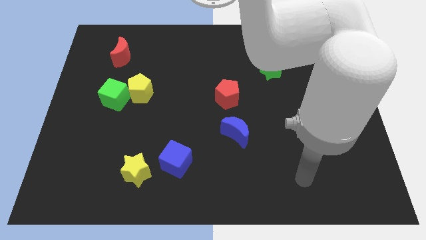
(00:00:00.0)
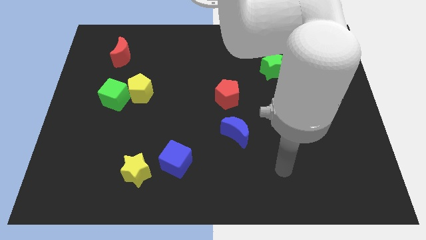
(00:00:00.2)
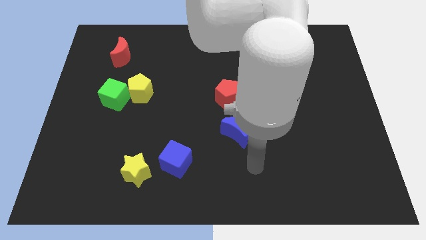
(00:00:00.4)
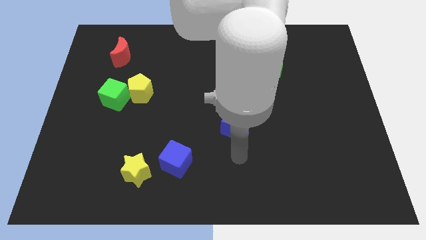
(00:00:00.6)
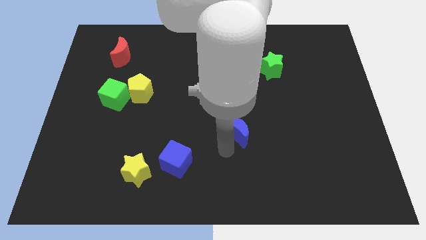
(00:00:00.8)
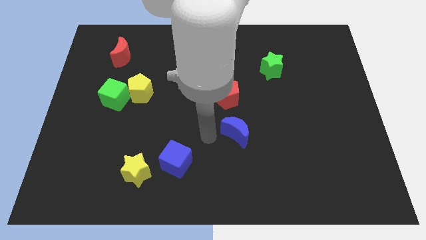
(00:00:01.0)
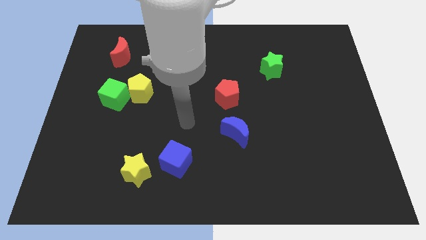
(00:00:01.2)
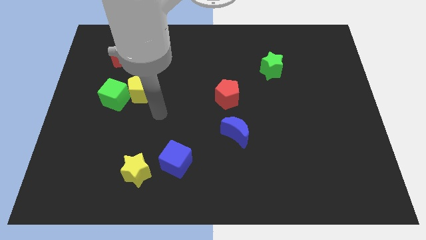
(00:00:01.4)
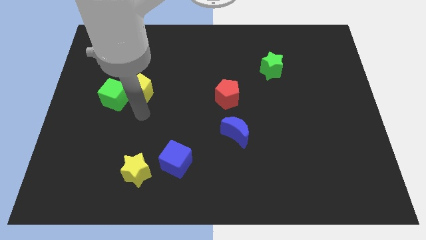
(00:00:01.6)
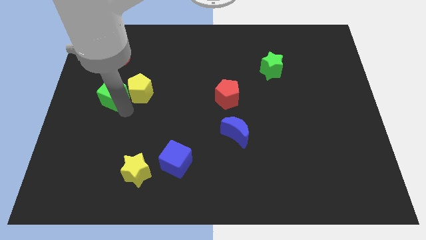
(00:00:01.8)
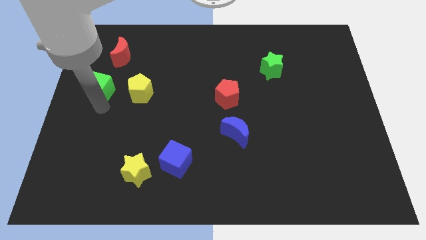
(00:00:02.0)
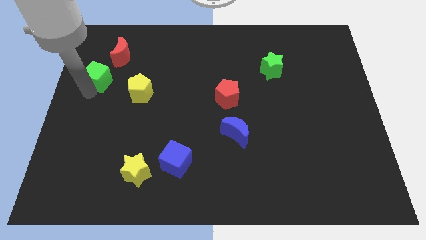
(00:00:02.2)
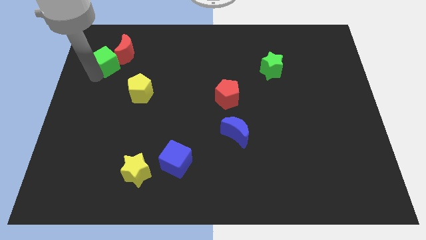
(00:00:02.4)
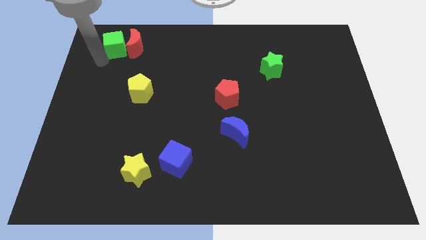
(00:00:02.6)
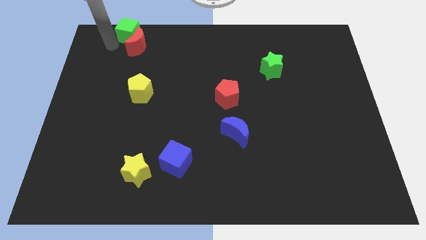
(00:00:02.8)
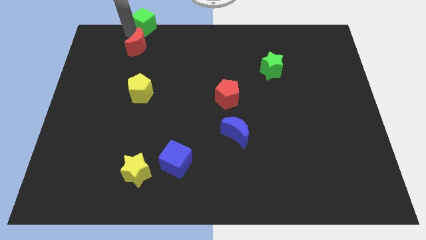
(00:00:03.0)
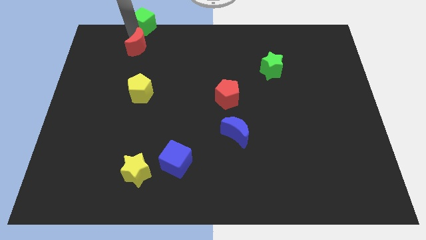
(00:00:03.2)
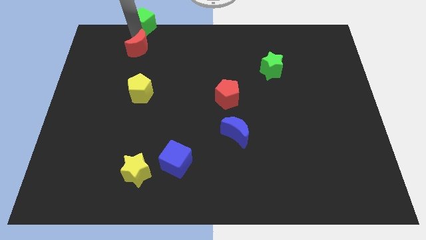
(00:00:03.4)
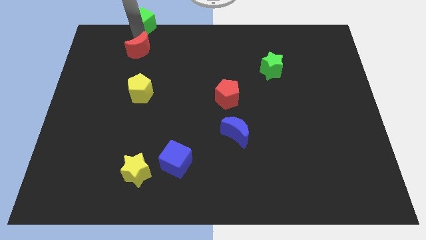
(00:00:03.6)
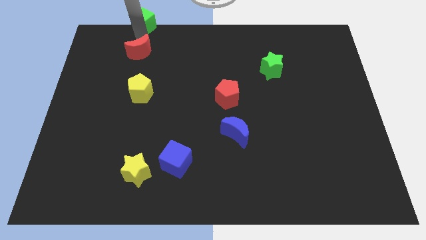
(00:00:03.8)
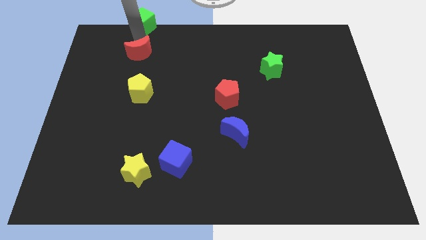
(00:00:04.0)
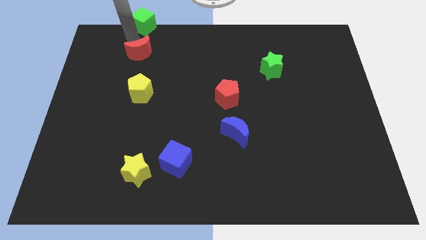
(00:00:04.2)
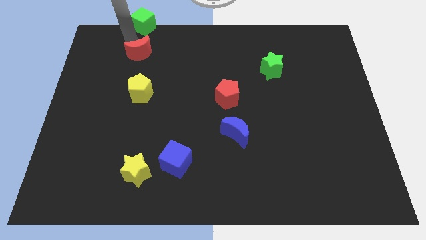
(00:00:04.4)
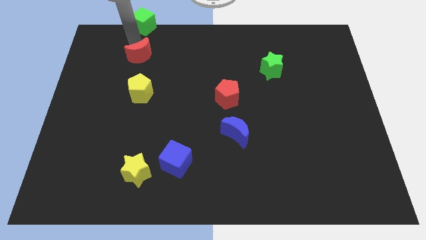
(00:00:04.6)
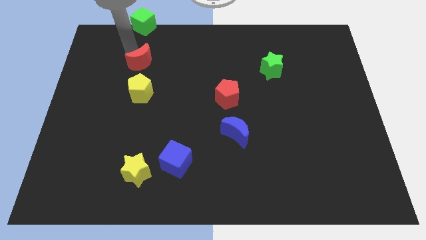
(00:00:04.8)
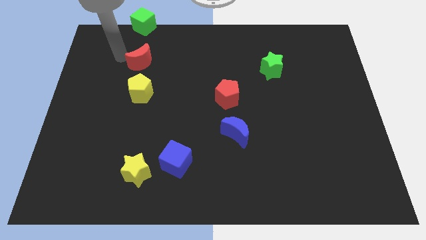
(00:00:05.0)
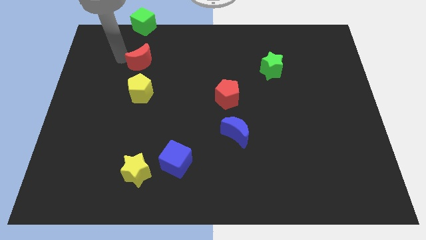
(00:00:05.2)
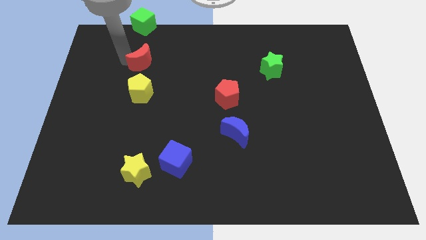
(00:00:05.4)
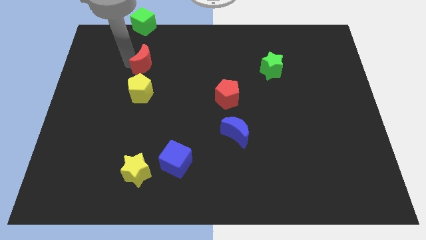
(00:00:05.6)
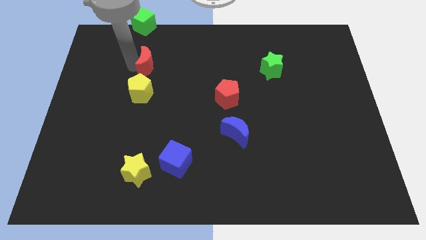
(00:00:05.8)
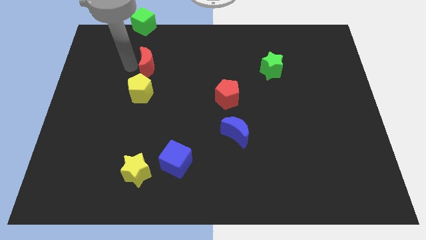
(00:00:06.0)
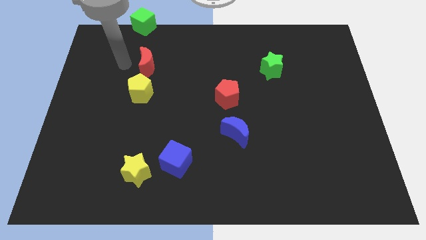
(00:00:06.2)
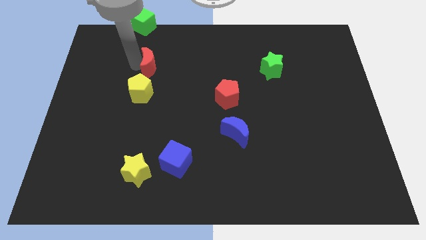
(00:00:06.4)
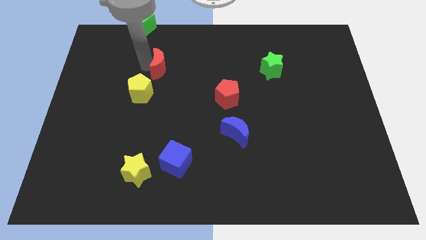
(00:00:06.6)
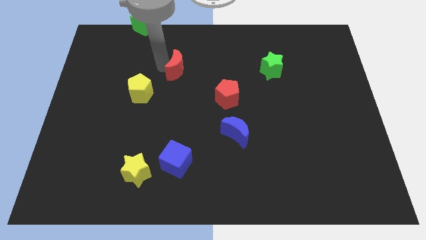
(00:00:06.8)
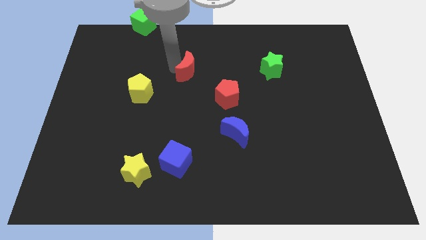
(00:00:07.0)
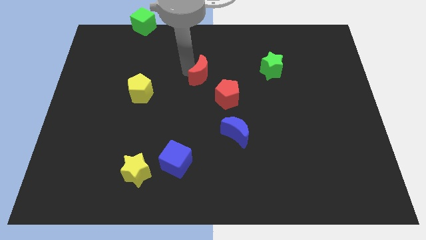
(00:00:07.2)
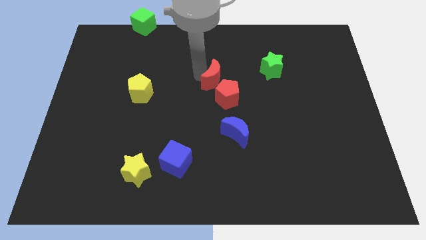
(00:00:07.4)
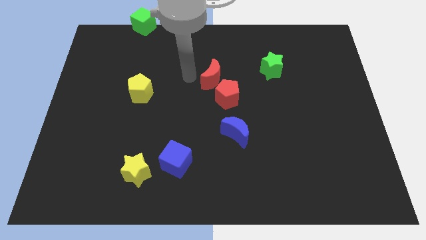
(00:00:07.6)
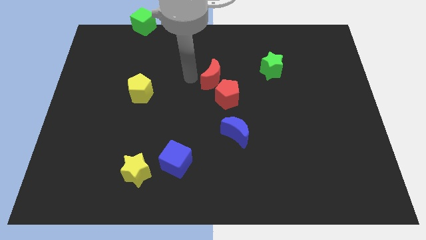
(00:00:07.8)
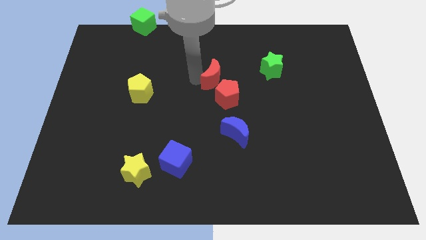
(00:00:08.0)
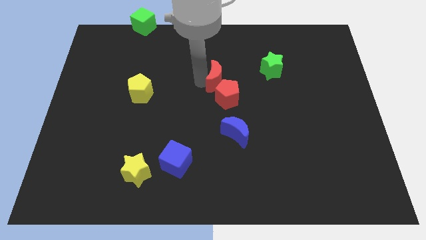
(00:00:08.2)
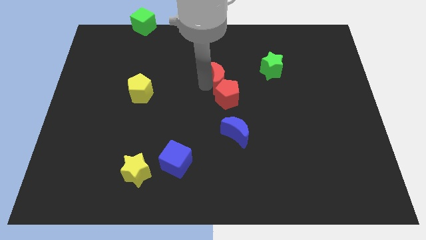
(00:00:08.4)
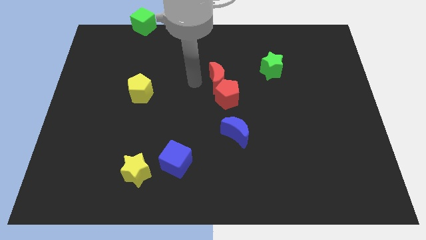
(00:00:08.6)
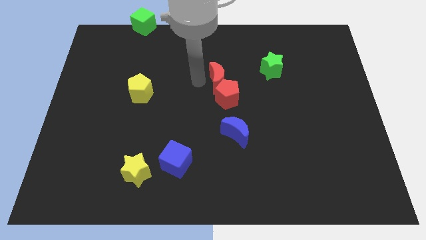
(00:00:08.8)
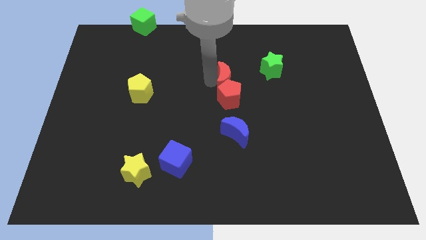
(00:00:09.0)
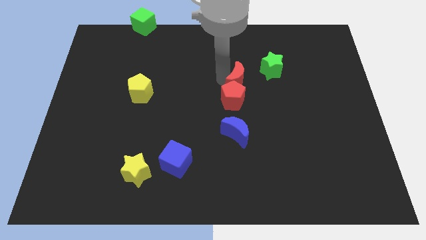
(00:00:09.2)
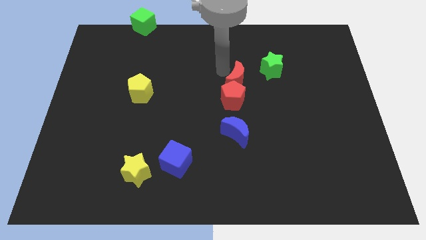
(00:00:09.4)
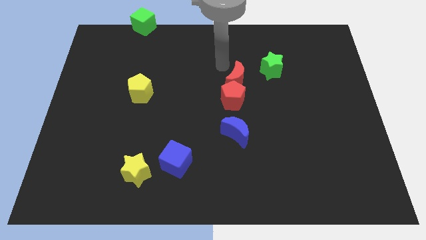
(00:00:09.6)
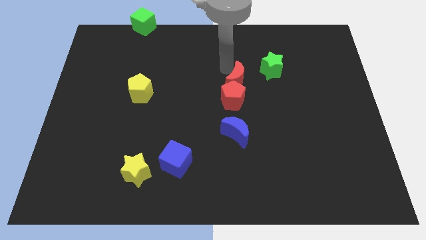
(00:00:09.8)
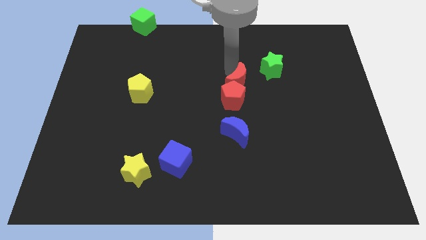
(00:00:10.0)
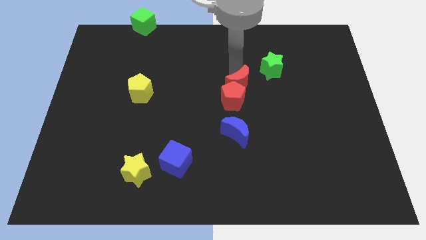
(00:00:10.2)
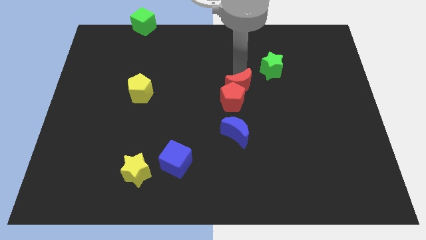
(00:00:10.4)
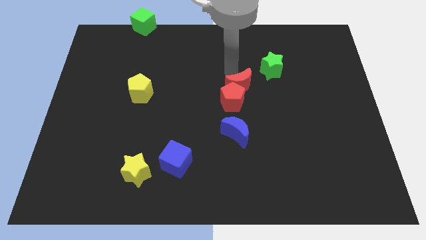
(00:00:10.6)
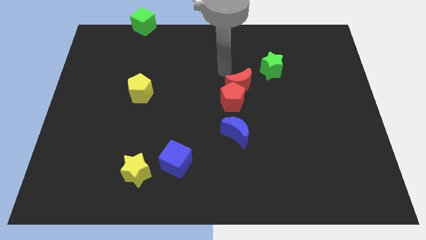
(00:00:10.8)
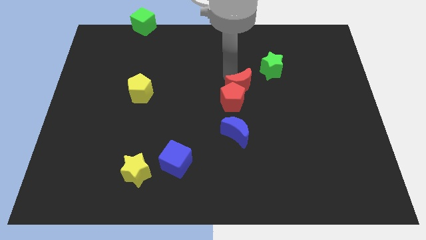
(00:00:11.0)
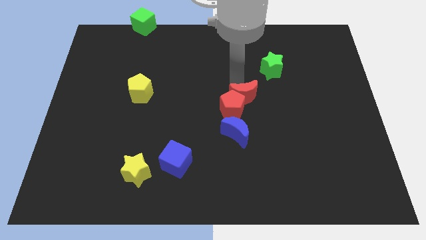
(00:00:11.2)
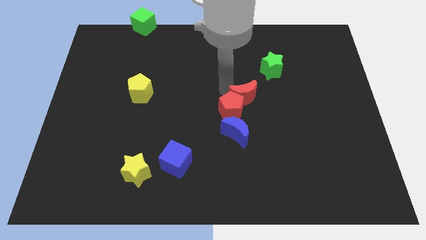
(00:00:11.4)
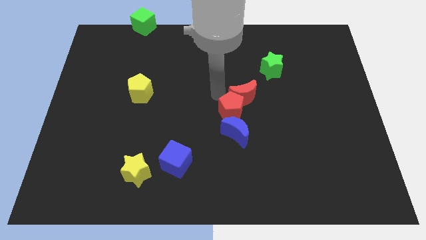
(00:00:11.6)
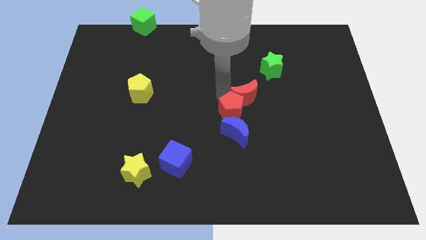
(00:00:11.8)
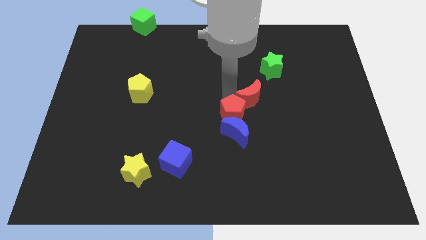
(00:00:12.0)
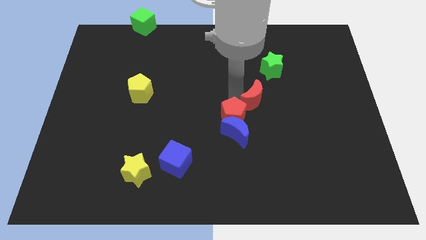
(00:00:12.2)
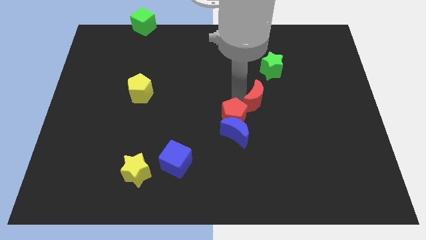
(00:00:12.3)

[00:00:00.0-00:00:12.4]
put the red moon below the green star

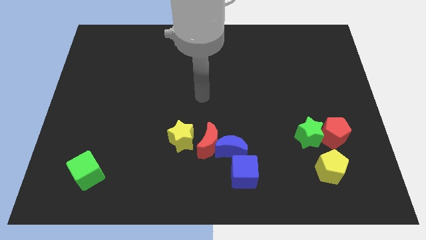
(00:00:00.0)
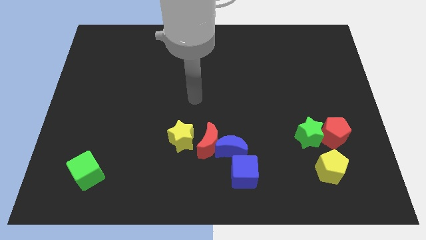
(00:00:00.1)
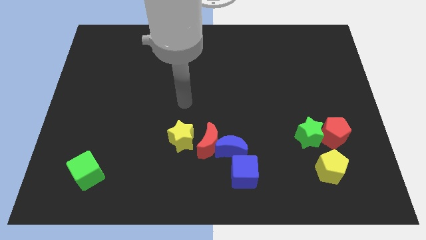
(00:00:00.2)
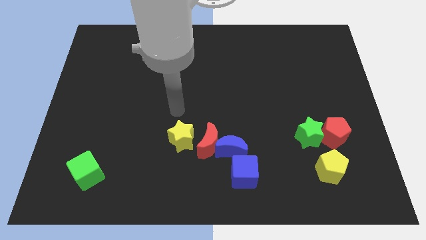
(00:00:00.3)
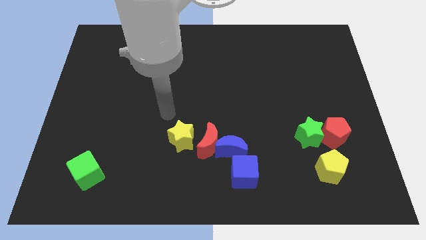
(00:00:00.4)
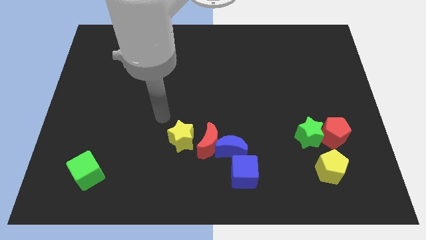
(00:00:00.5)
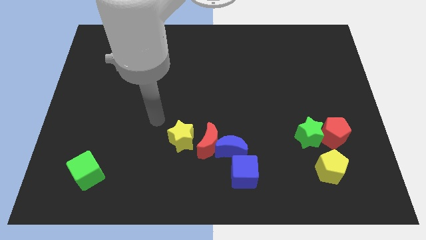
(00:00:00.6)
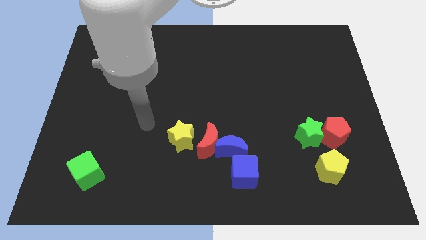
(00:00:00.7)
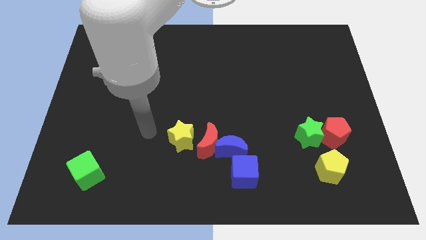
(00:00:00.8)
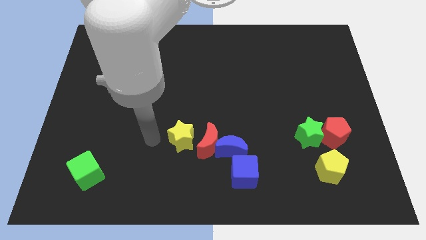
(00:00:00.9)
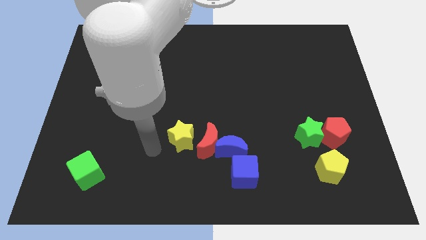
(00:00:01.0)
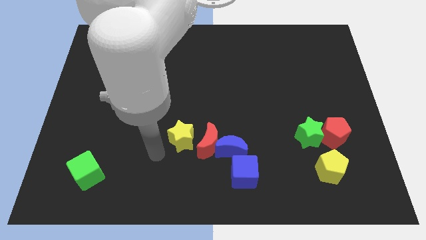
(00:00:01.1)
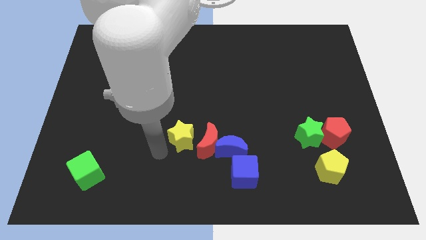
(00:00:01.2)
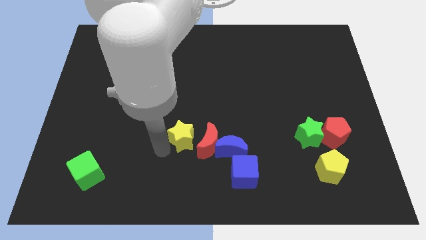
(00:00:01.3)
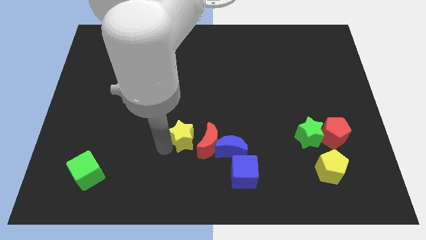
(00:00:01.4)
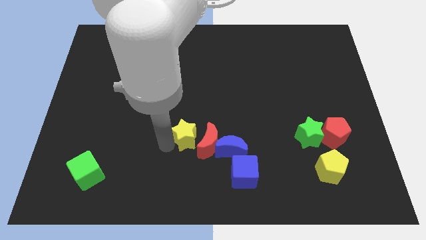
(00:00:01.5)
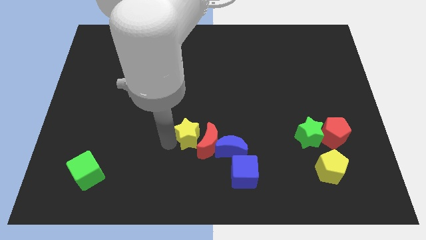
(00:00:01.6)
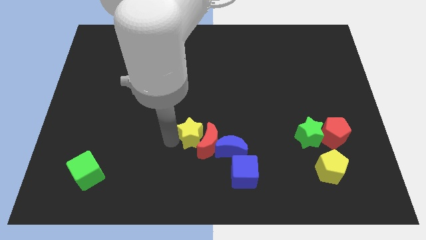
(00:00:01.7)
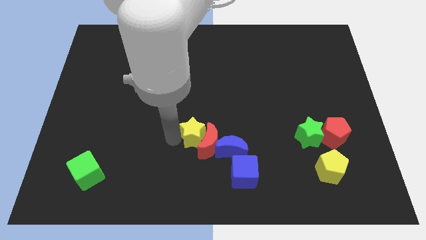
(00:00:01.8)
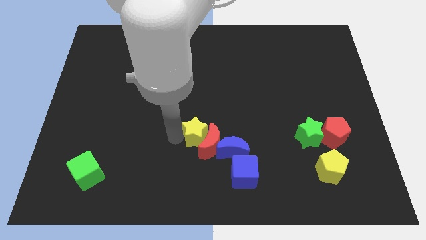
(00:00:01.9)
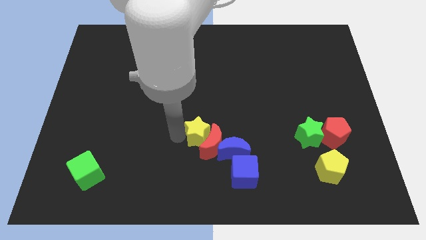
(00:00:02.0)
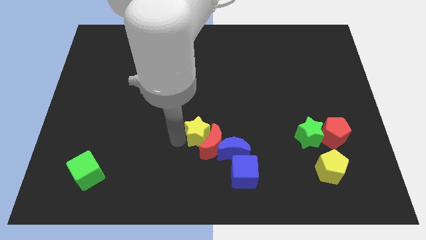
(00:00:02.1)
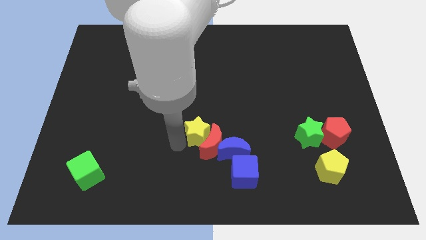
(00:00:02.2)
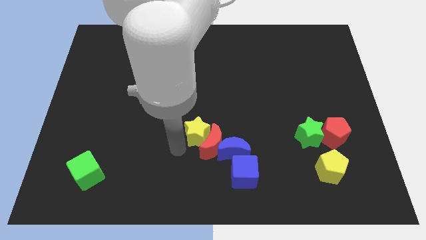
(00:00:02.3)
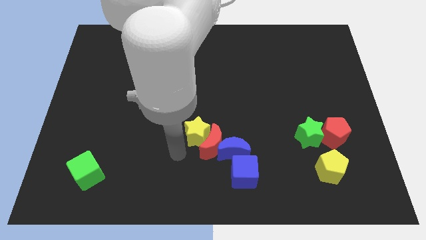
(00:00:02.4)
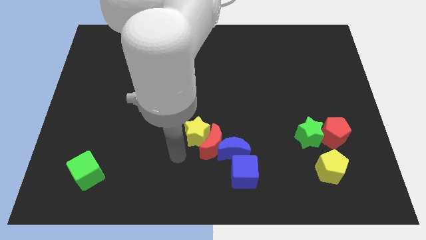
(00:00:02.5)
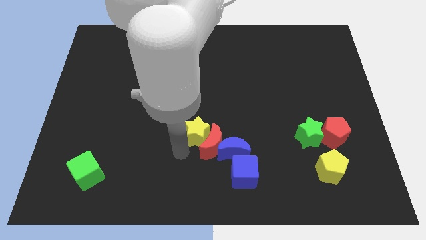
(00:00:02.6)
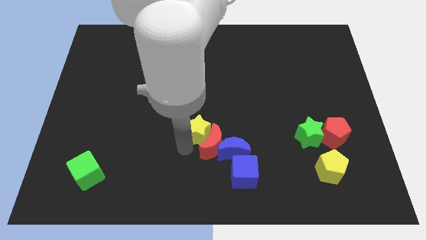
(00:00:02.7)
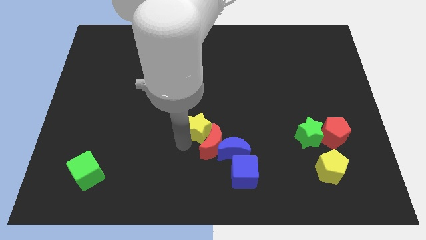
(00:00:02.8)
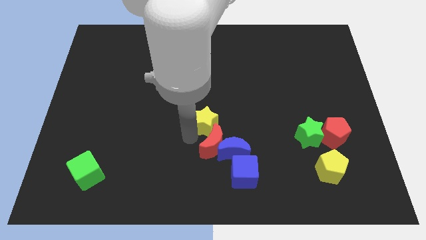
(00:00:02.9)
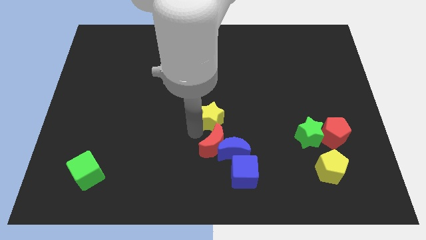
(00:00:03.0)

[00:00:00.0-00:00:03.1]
put the yellow star above the blue moon
